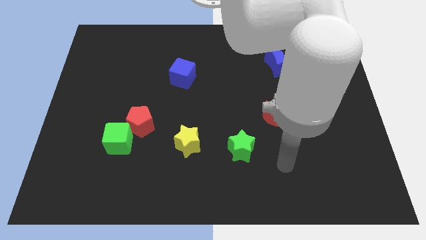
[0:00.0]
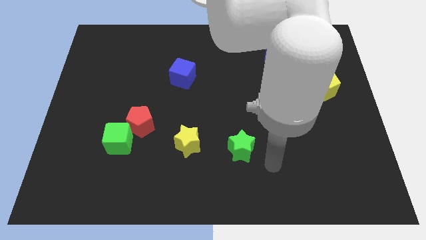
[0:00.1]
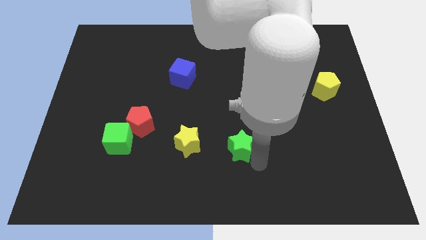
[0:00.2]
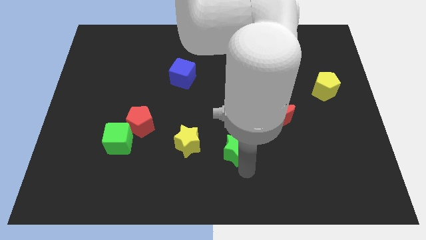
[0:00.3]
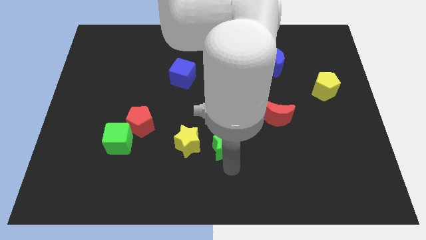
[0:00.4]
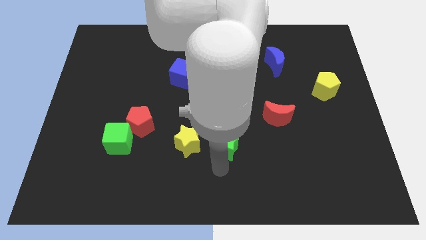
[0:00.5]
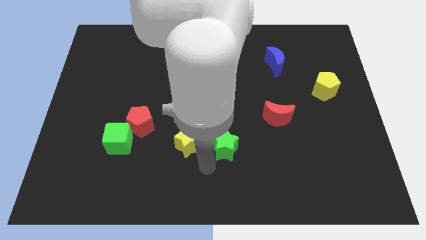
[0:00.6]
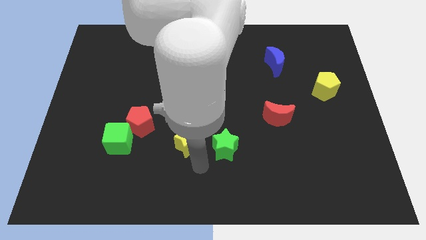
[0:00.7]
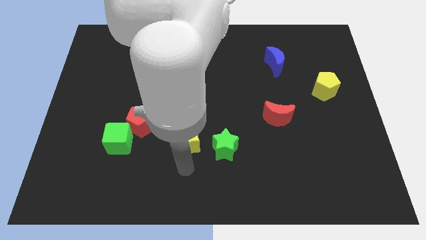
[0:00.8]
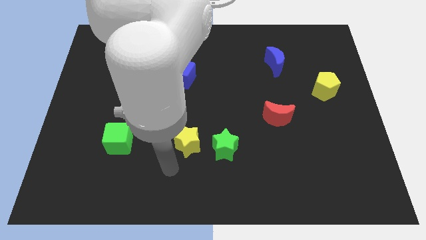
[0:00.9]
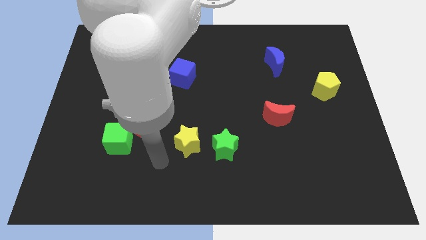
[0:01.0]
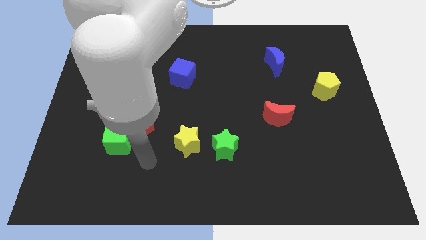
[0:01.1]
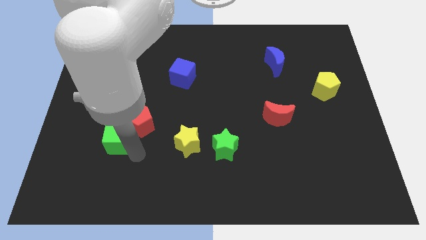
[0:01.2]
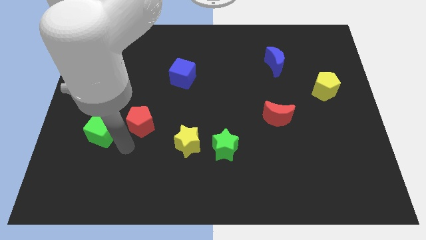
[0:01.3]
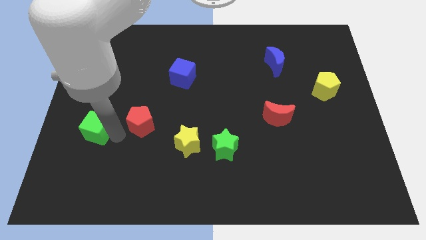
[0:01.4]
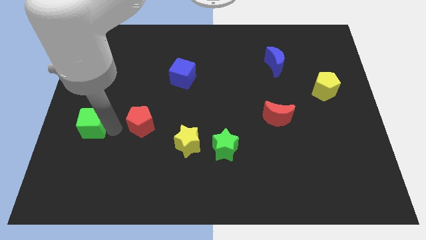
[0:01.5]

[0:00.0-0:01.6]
move the red pentagon away from the green cube

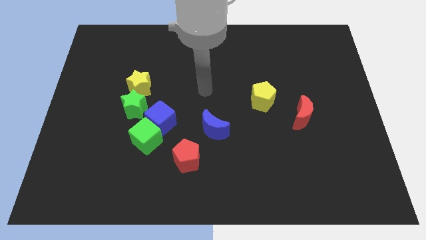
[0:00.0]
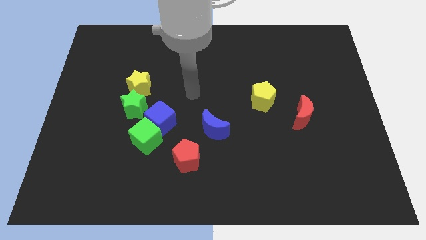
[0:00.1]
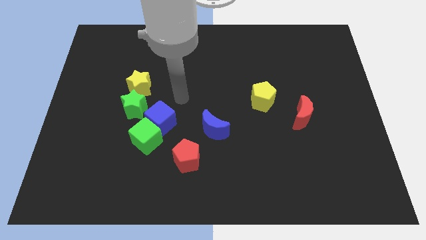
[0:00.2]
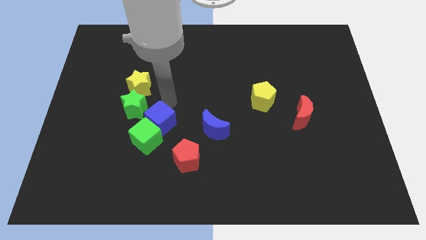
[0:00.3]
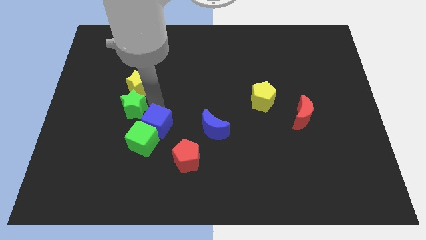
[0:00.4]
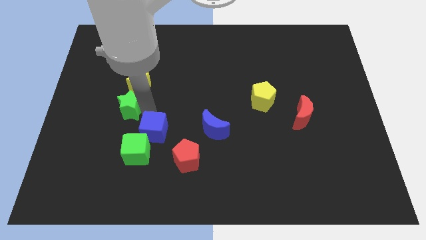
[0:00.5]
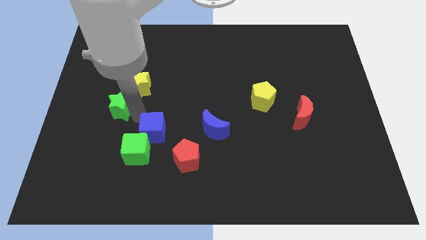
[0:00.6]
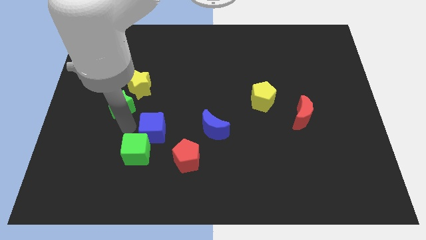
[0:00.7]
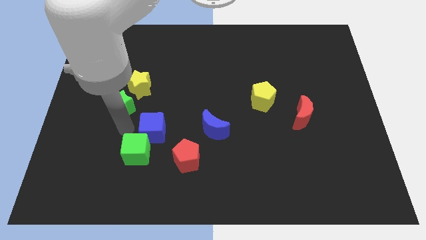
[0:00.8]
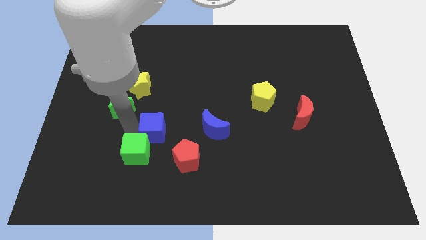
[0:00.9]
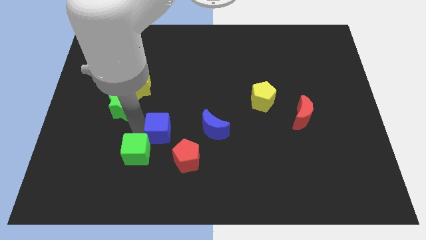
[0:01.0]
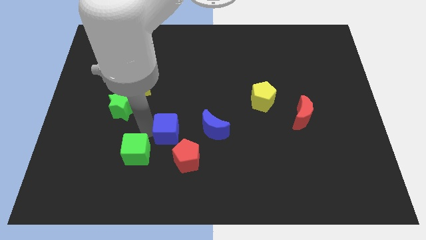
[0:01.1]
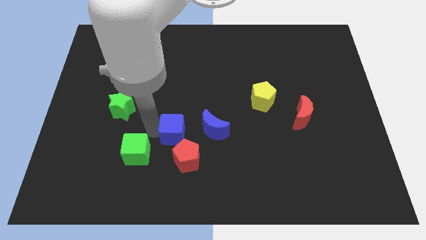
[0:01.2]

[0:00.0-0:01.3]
pull the blue cube apart from the green cube and green star

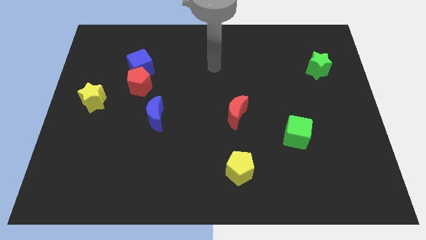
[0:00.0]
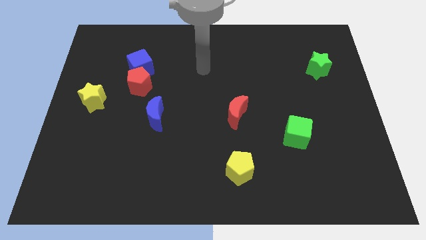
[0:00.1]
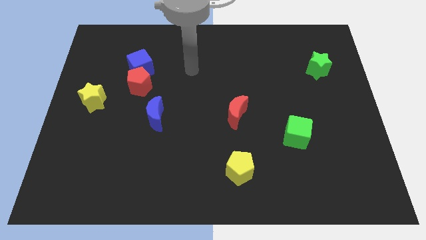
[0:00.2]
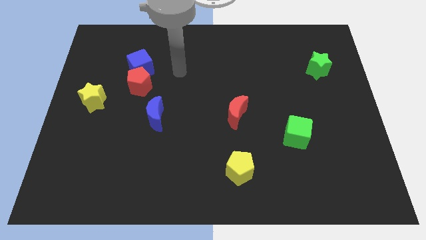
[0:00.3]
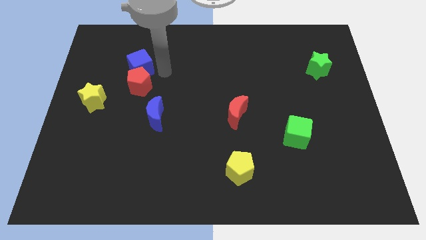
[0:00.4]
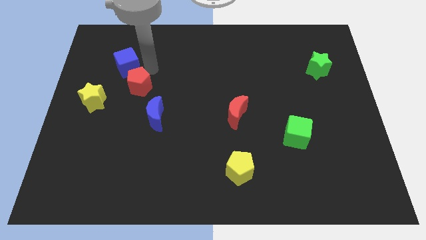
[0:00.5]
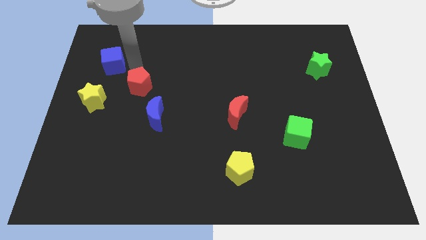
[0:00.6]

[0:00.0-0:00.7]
separate the red pentagon from the blue cube

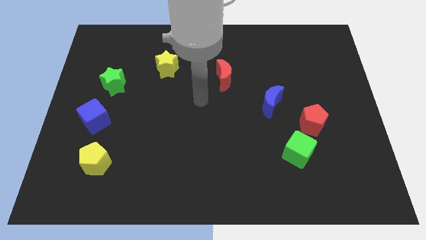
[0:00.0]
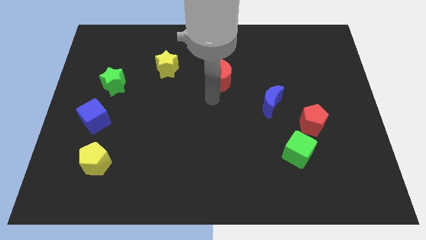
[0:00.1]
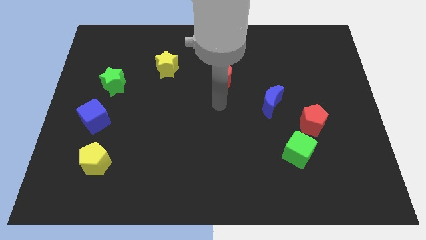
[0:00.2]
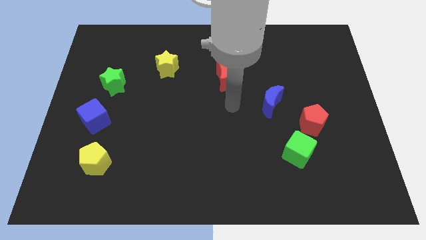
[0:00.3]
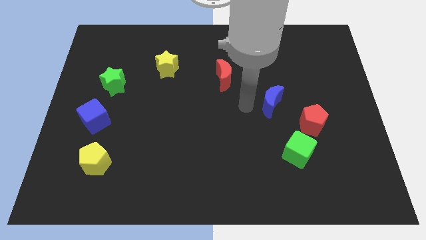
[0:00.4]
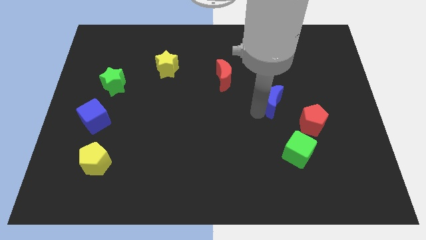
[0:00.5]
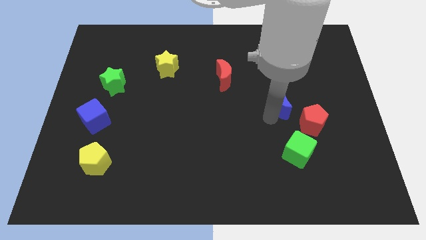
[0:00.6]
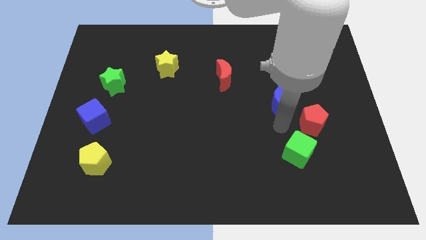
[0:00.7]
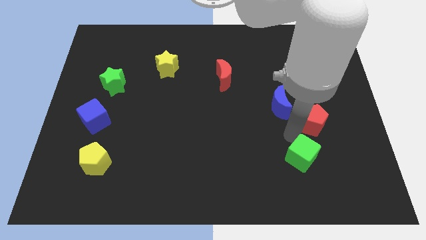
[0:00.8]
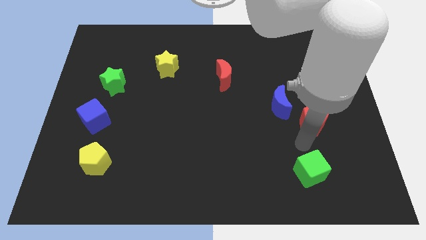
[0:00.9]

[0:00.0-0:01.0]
separate the red pentagon from the green cube

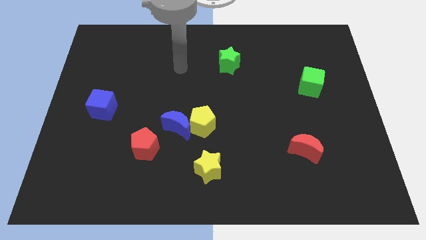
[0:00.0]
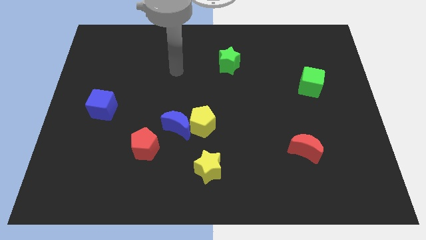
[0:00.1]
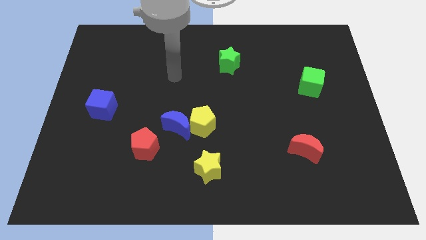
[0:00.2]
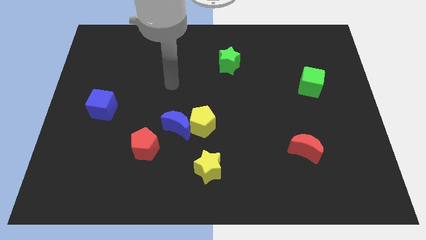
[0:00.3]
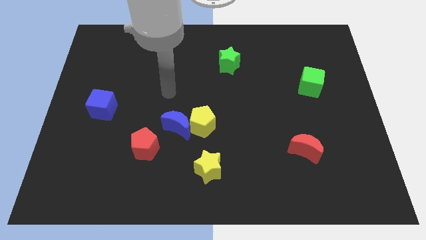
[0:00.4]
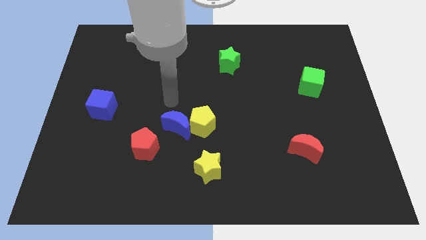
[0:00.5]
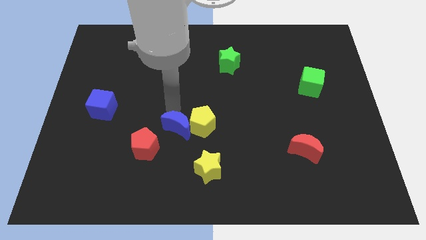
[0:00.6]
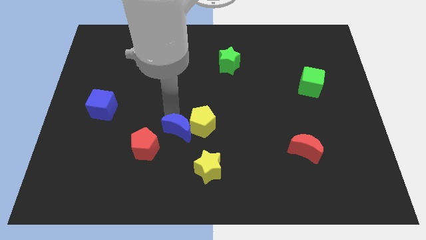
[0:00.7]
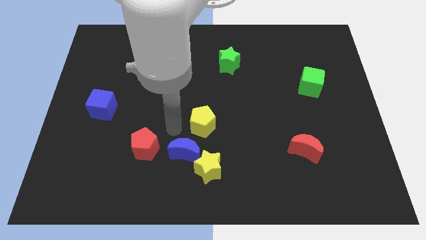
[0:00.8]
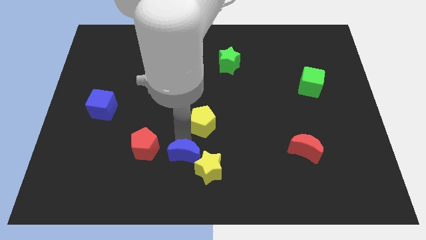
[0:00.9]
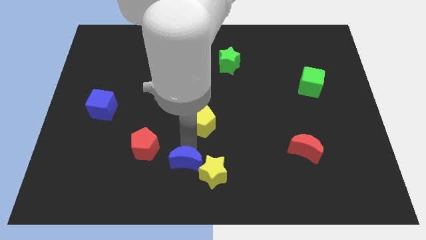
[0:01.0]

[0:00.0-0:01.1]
move the yellow pentagon away from the blue moon

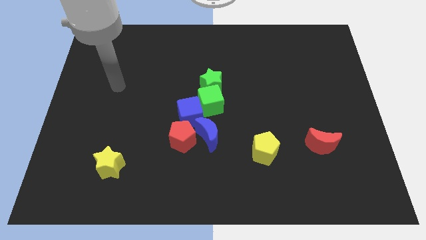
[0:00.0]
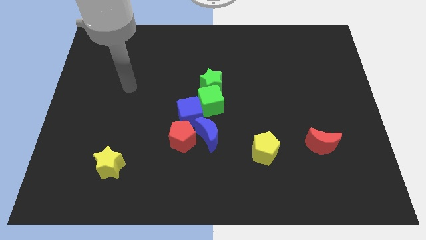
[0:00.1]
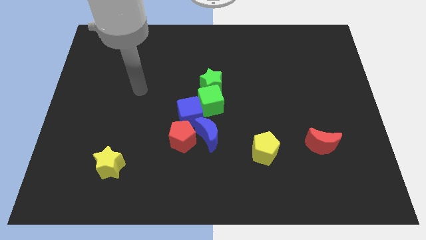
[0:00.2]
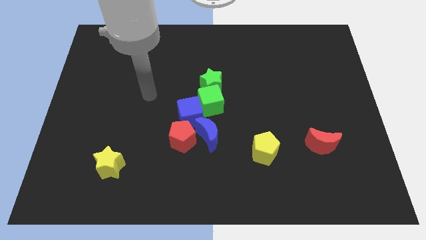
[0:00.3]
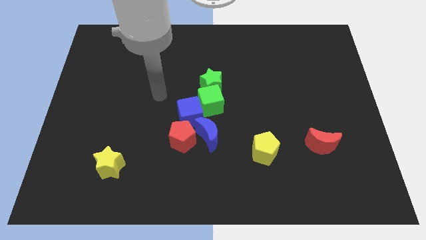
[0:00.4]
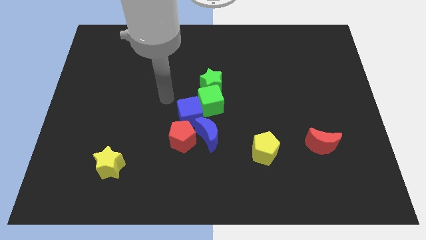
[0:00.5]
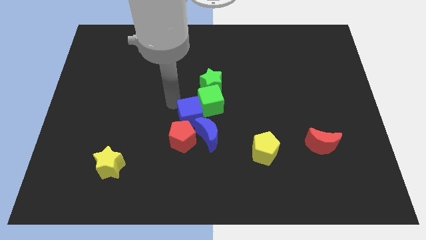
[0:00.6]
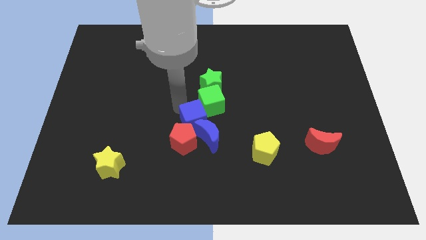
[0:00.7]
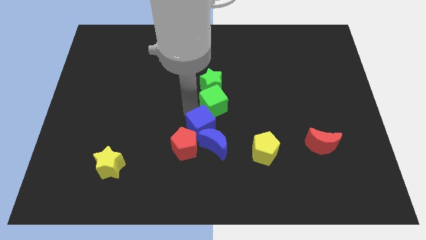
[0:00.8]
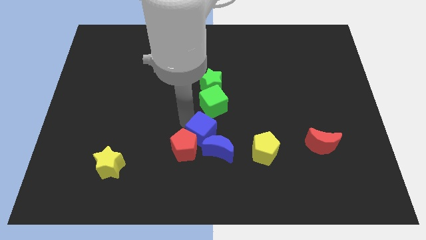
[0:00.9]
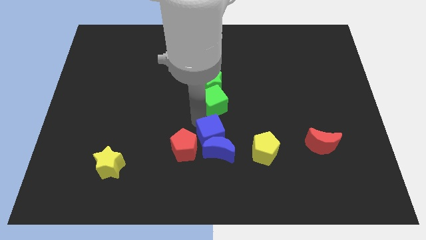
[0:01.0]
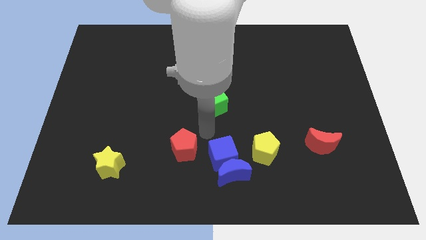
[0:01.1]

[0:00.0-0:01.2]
pull the red pentagon apart from the blue moon and blue cube

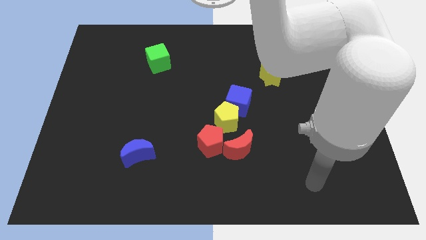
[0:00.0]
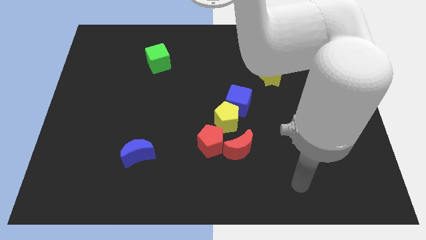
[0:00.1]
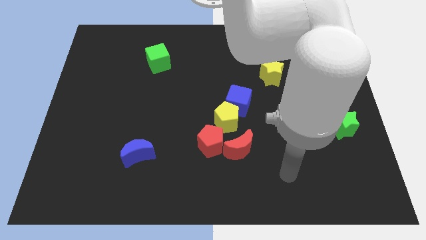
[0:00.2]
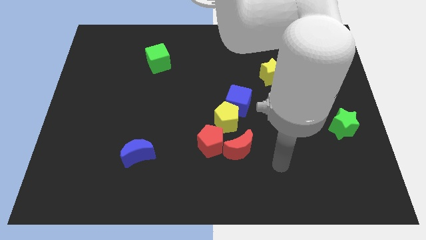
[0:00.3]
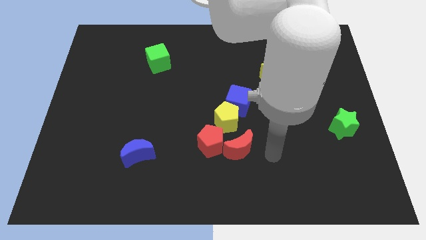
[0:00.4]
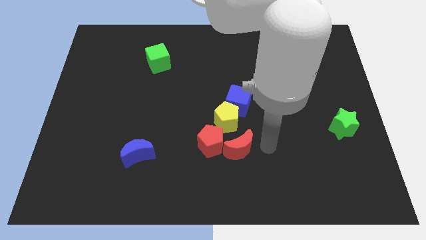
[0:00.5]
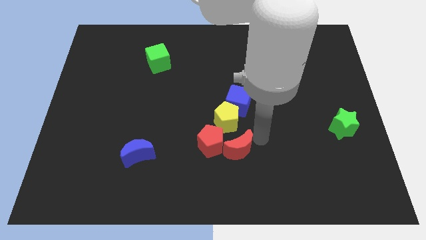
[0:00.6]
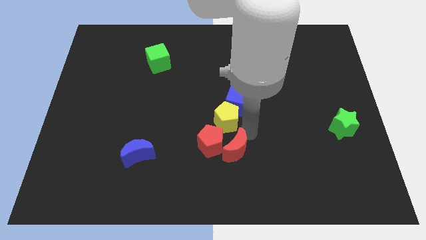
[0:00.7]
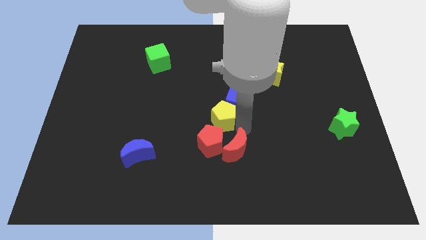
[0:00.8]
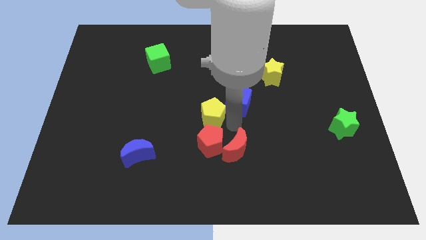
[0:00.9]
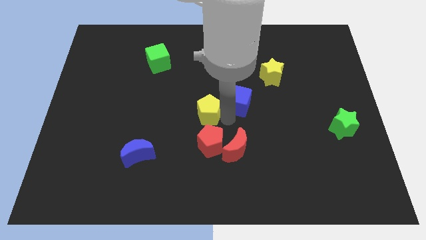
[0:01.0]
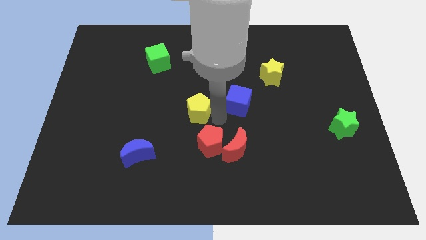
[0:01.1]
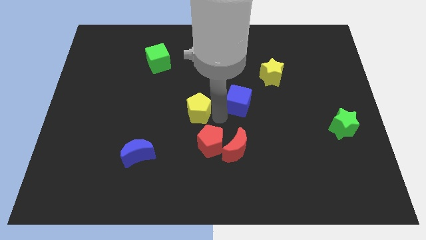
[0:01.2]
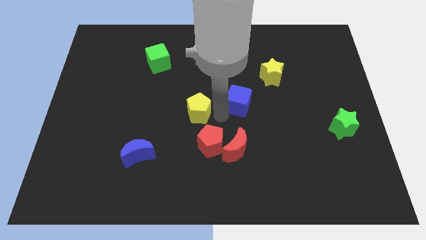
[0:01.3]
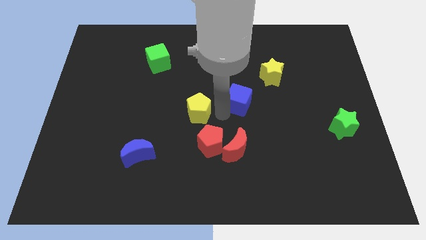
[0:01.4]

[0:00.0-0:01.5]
move the blue cube away from the yellow pentagon

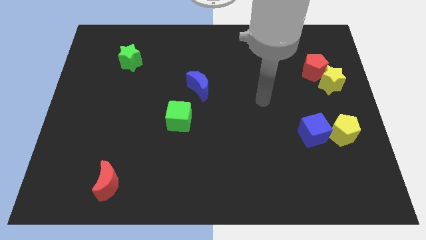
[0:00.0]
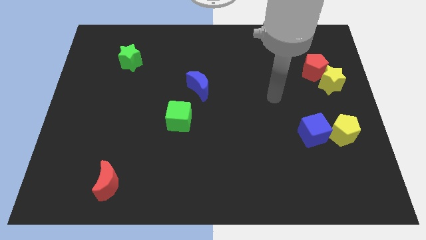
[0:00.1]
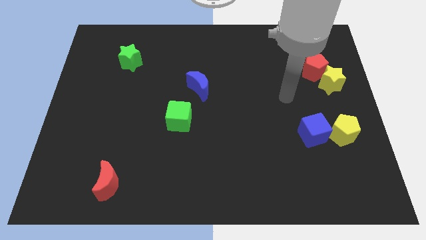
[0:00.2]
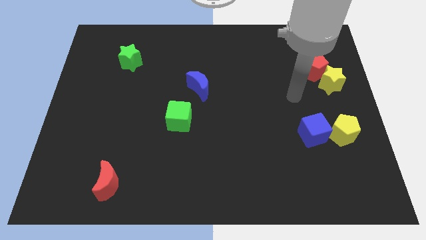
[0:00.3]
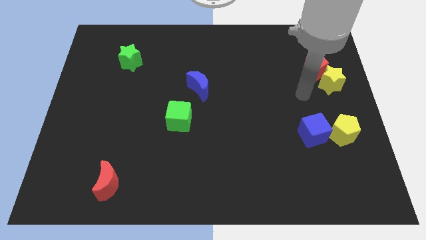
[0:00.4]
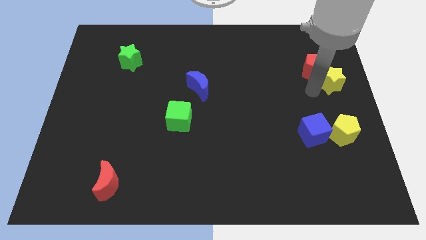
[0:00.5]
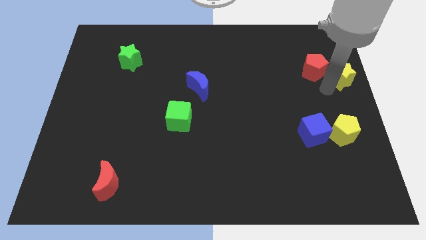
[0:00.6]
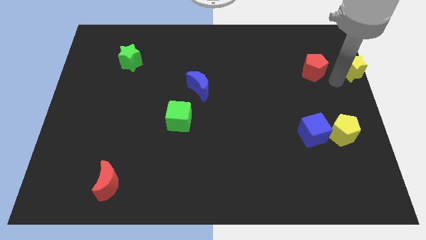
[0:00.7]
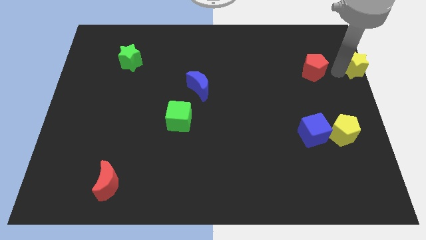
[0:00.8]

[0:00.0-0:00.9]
move the red pentagon away from the yellow star
